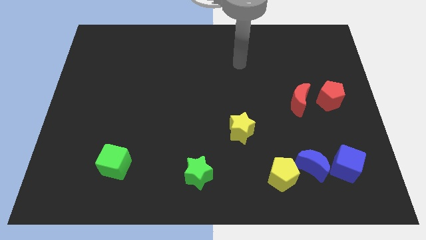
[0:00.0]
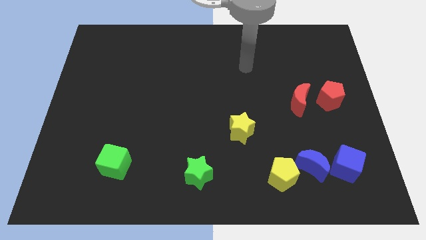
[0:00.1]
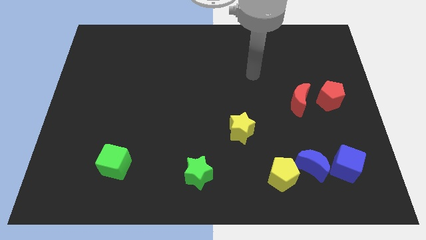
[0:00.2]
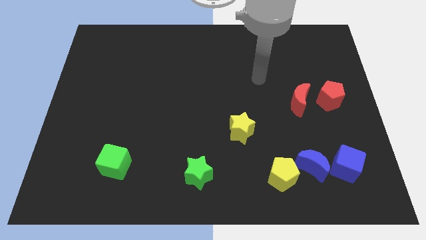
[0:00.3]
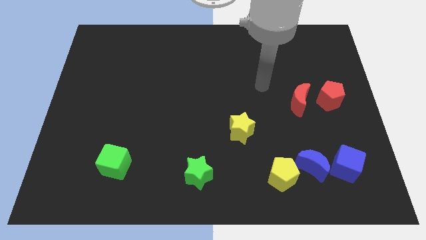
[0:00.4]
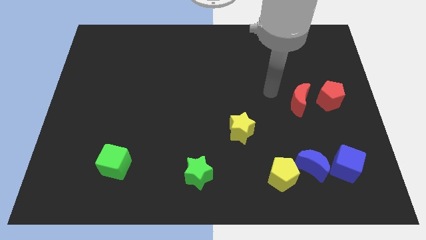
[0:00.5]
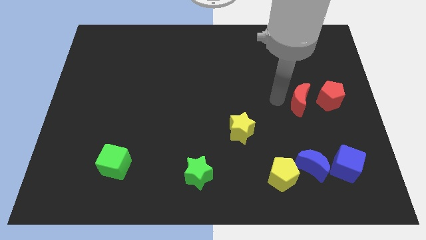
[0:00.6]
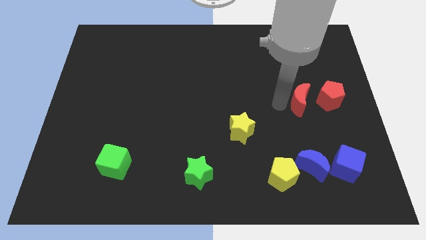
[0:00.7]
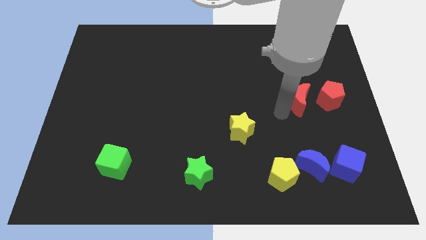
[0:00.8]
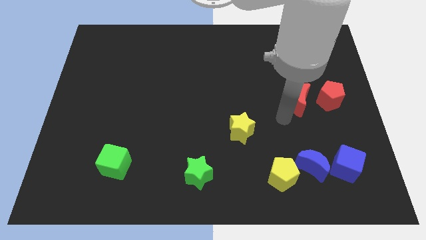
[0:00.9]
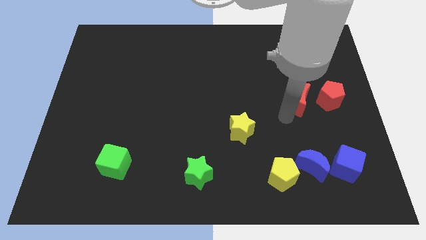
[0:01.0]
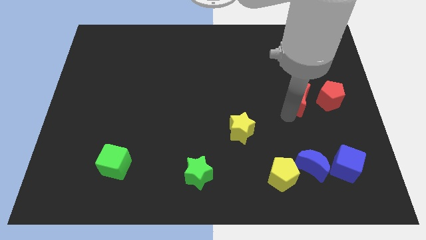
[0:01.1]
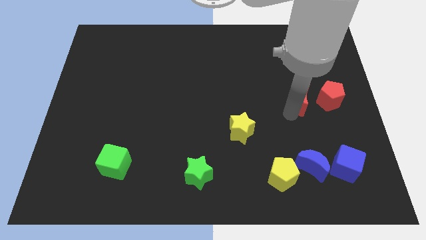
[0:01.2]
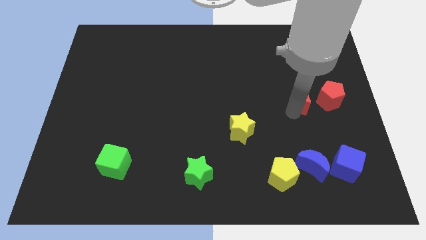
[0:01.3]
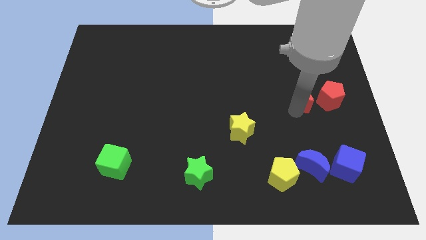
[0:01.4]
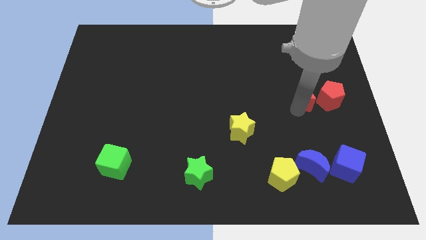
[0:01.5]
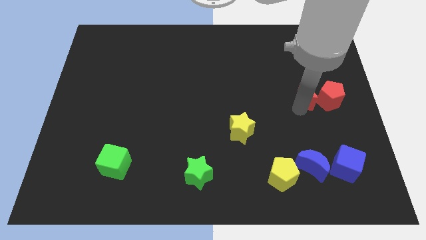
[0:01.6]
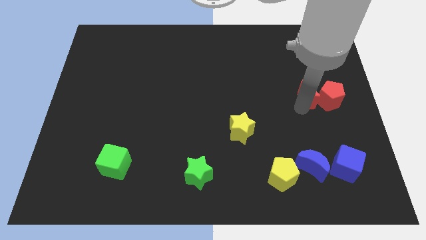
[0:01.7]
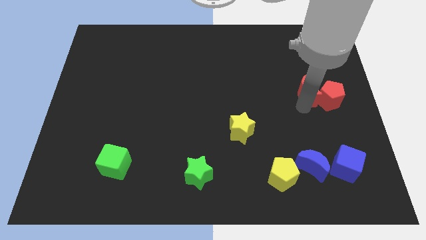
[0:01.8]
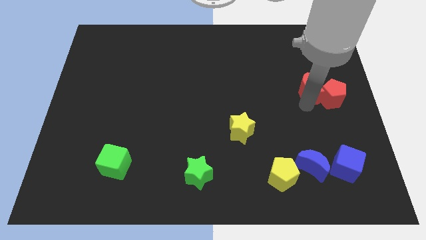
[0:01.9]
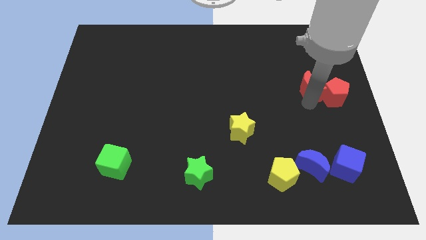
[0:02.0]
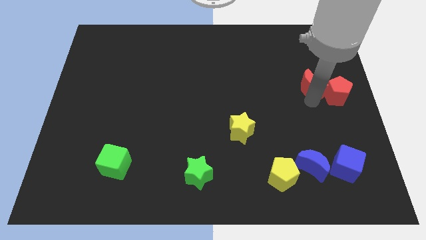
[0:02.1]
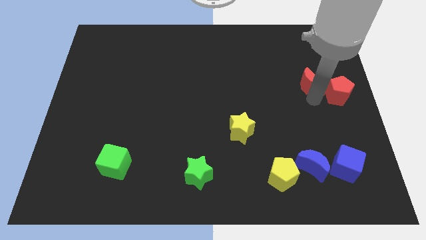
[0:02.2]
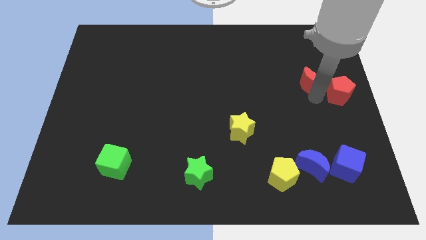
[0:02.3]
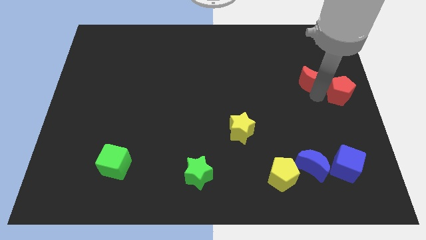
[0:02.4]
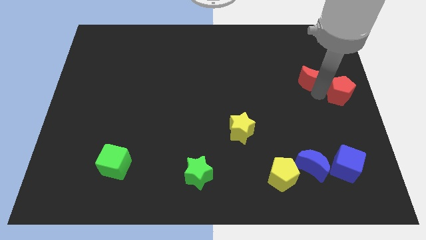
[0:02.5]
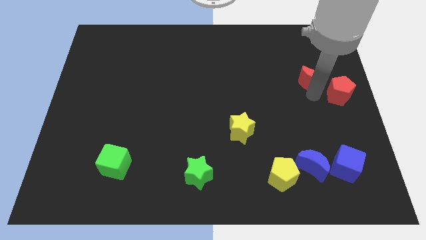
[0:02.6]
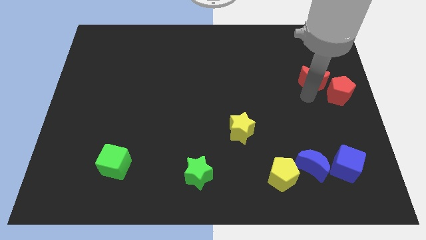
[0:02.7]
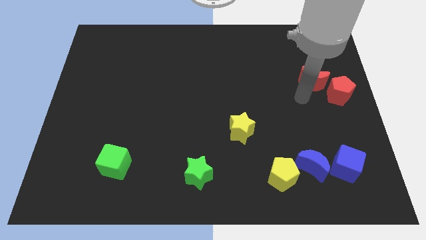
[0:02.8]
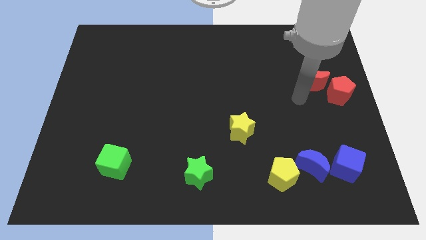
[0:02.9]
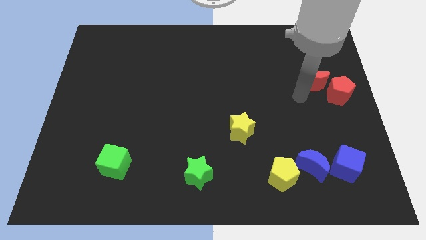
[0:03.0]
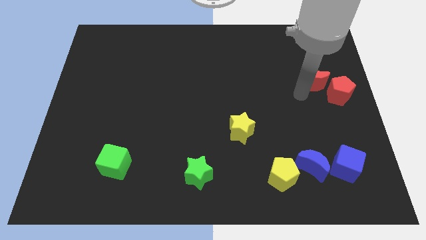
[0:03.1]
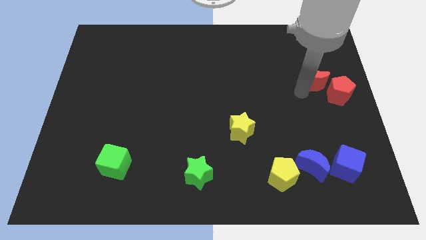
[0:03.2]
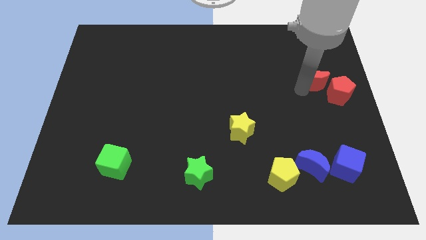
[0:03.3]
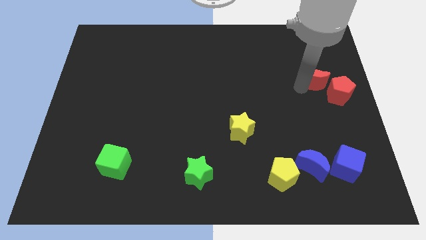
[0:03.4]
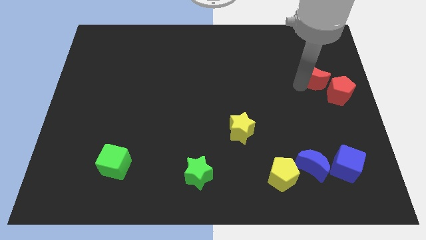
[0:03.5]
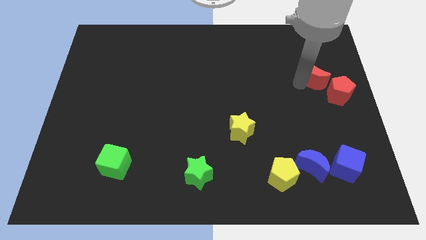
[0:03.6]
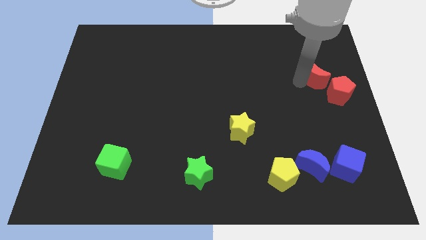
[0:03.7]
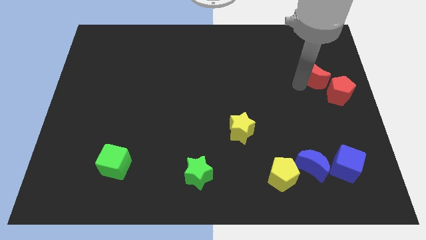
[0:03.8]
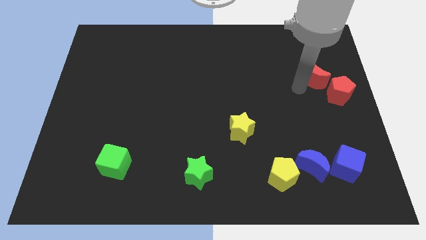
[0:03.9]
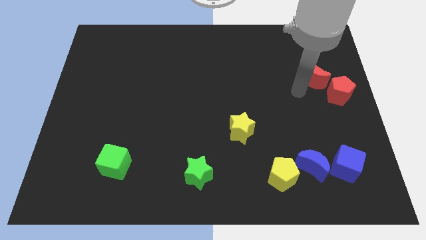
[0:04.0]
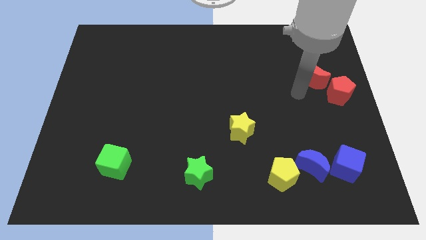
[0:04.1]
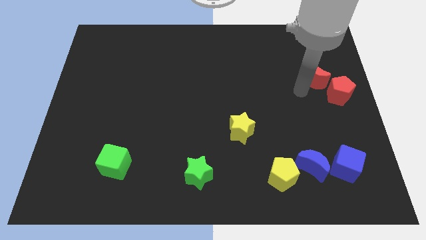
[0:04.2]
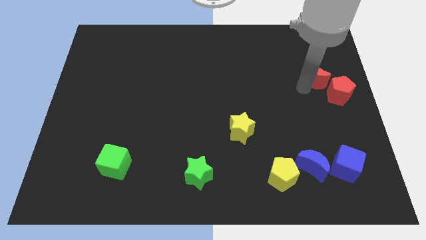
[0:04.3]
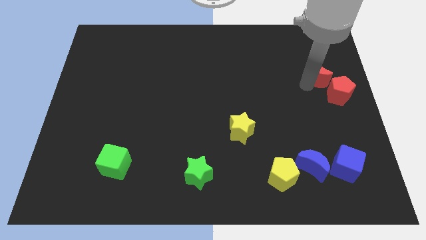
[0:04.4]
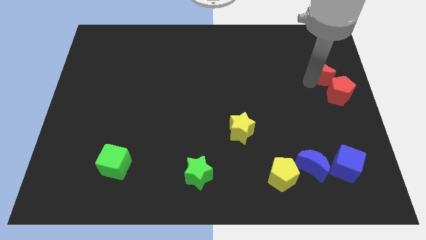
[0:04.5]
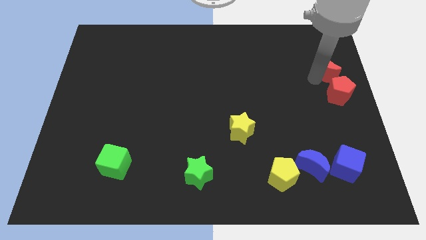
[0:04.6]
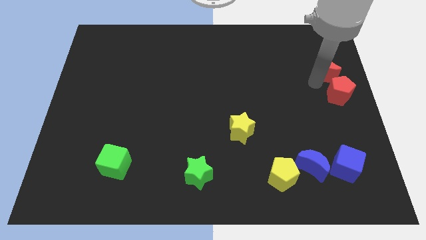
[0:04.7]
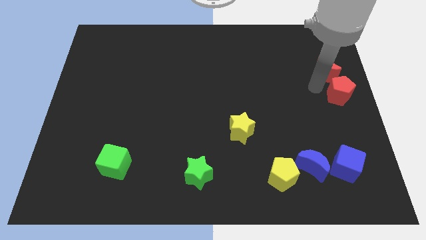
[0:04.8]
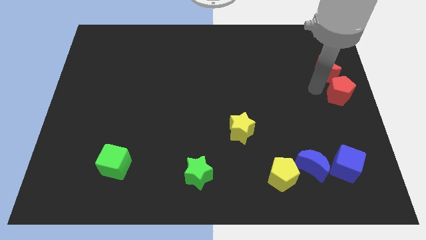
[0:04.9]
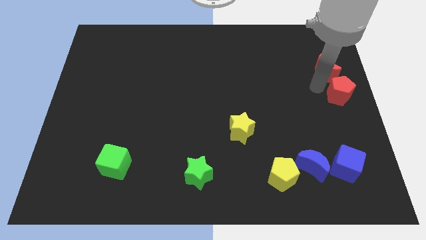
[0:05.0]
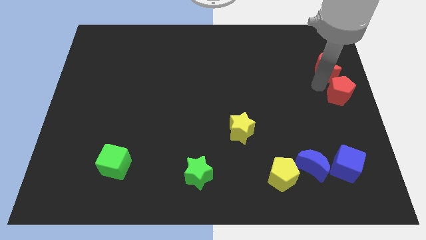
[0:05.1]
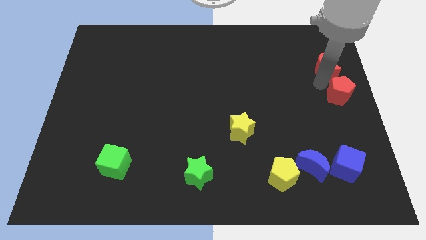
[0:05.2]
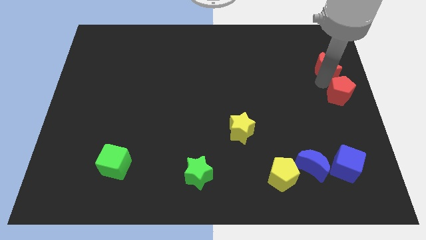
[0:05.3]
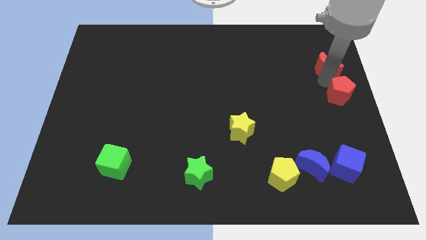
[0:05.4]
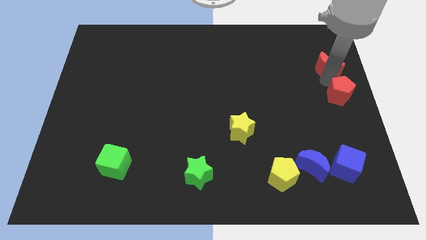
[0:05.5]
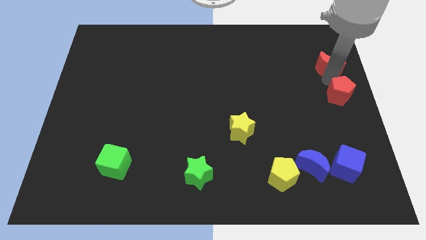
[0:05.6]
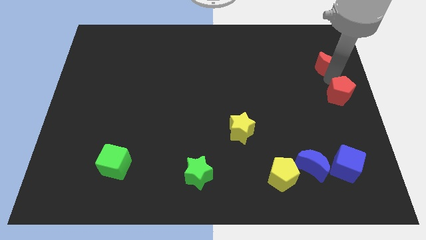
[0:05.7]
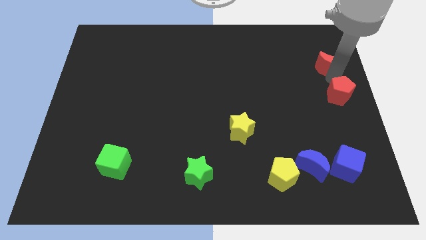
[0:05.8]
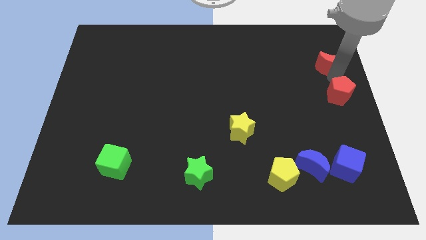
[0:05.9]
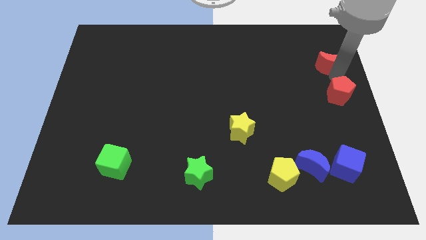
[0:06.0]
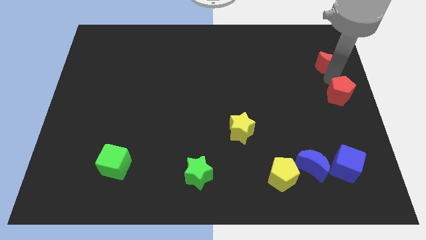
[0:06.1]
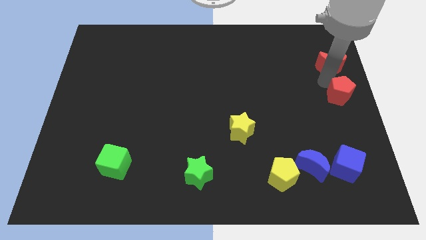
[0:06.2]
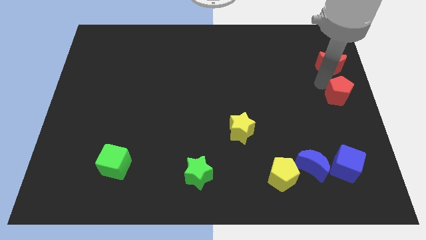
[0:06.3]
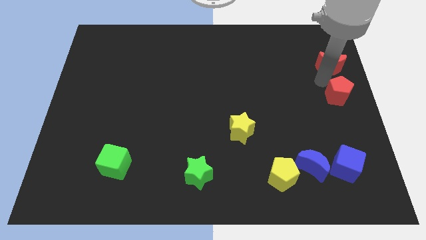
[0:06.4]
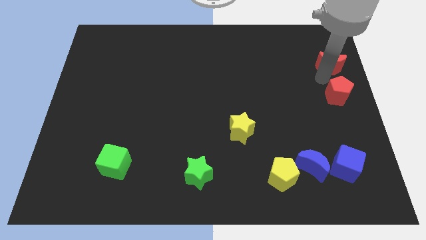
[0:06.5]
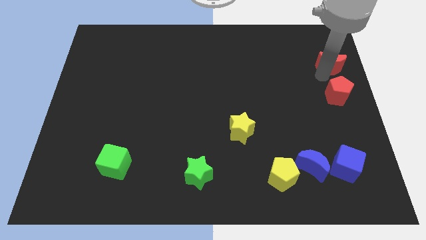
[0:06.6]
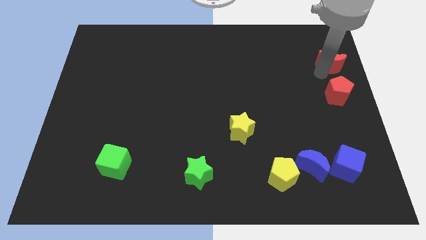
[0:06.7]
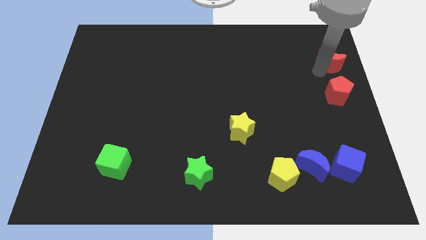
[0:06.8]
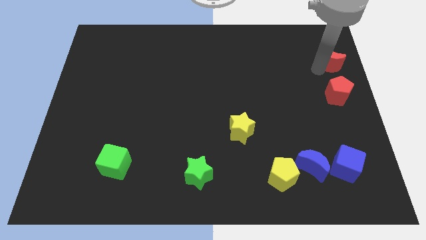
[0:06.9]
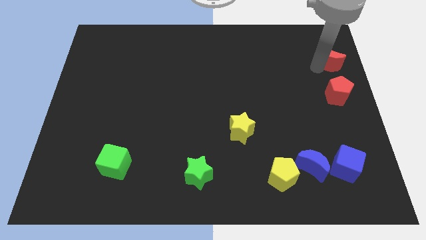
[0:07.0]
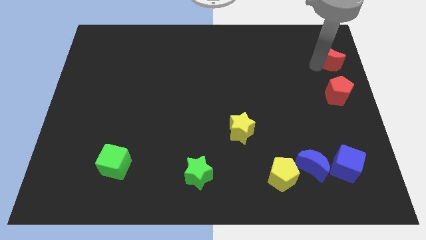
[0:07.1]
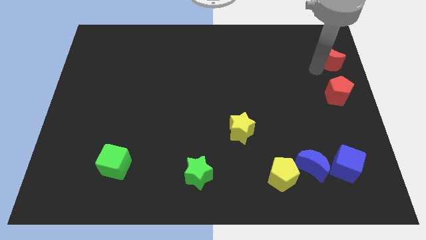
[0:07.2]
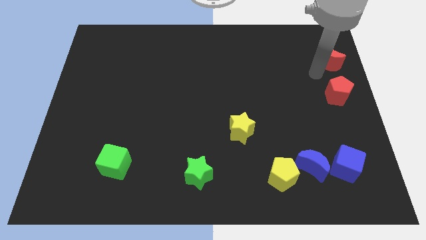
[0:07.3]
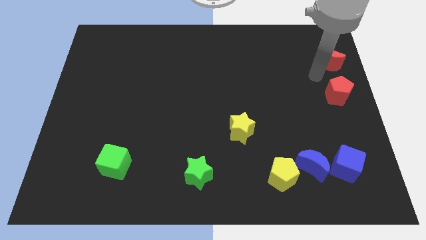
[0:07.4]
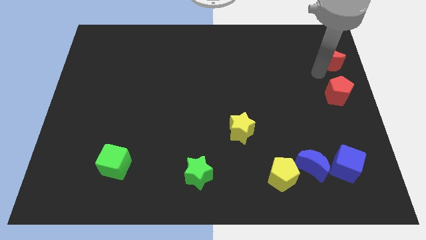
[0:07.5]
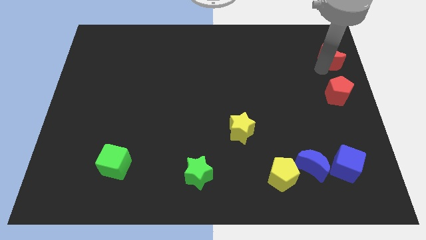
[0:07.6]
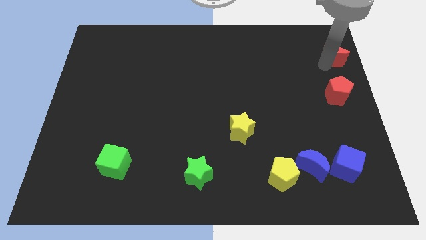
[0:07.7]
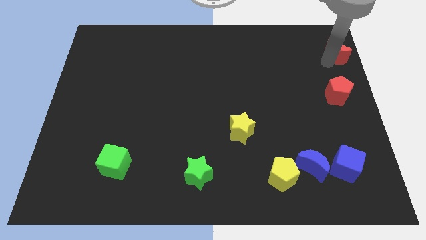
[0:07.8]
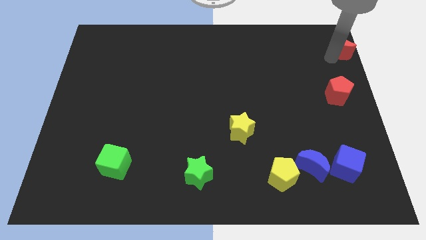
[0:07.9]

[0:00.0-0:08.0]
put the red moon to the top right of the board
